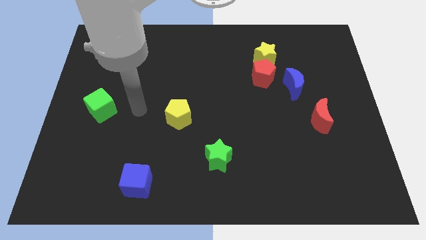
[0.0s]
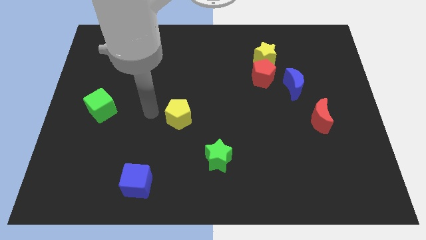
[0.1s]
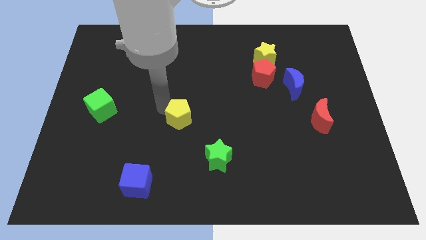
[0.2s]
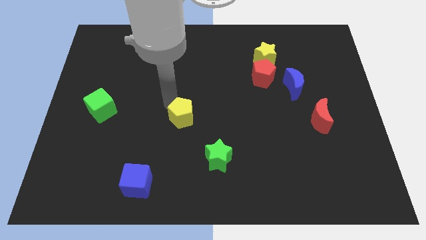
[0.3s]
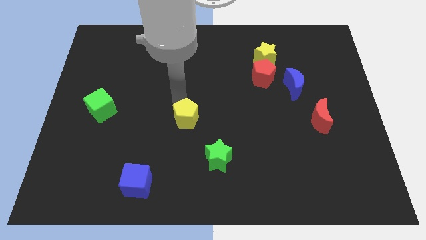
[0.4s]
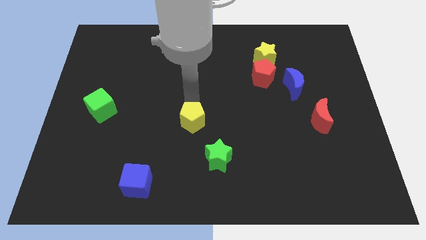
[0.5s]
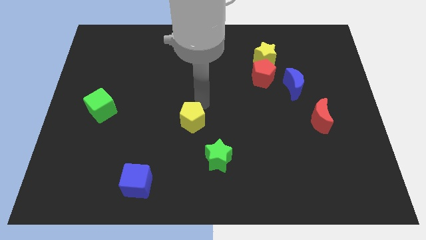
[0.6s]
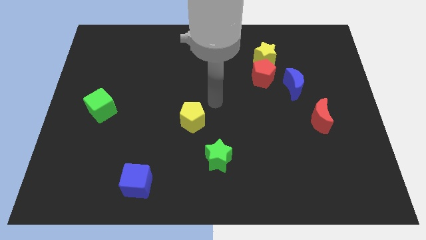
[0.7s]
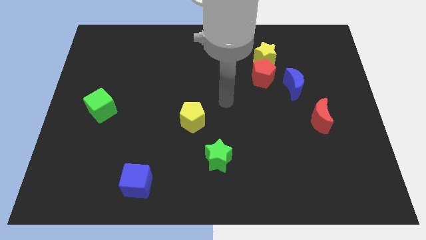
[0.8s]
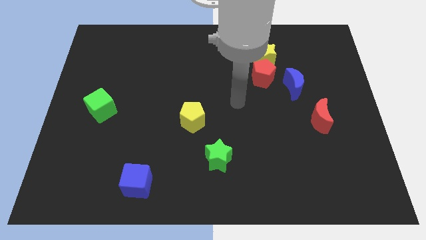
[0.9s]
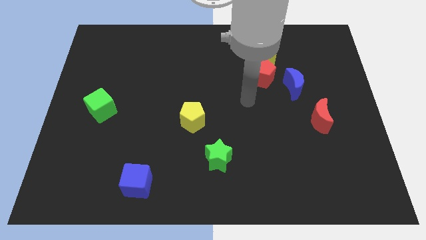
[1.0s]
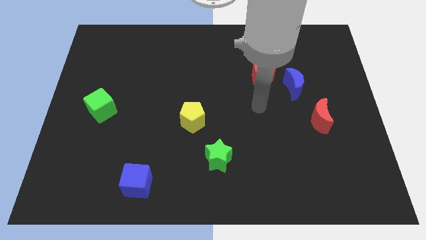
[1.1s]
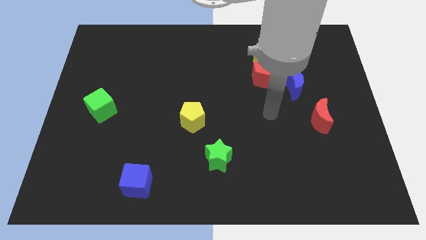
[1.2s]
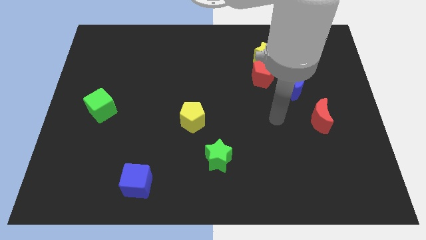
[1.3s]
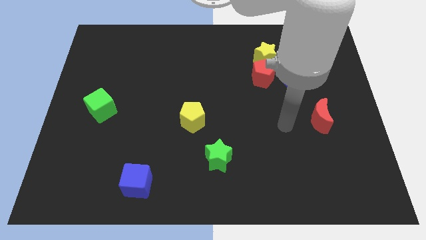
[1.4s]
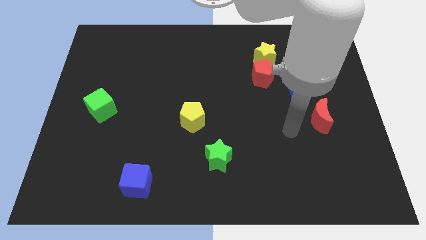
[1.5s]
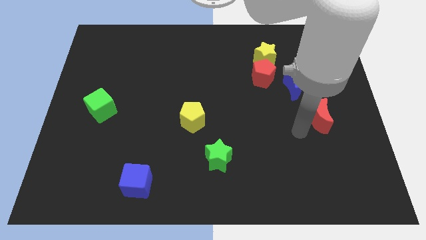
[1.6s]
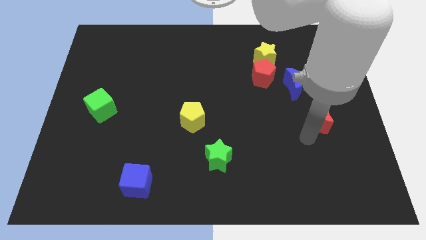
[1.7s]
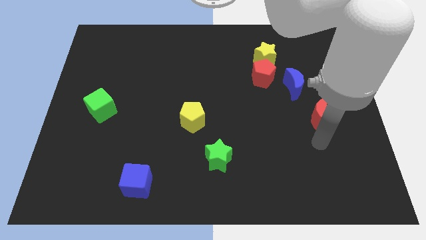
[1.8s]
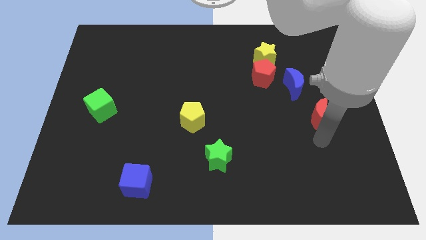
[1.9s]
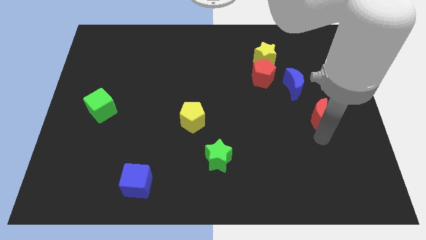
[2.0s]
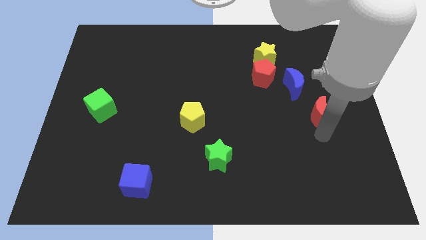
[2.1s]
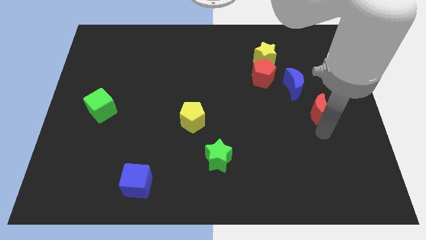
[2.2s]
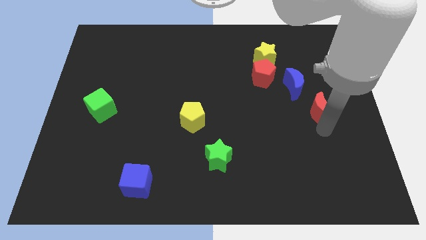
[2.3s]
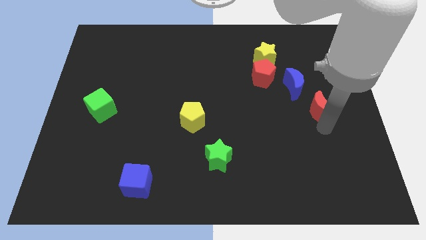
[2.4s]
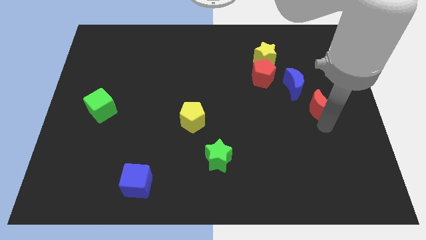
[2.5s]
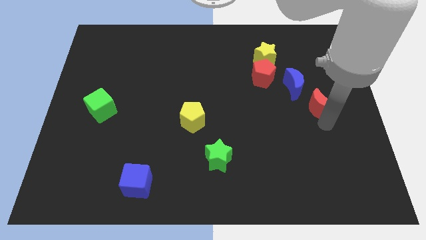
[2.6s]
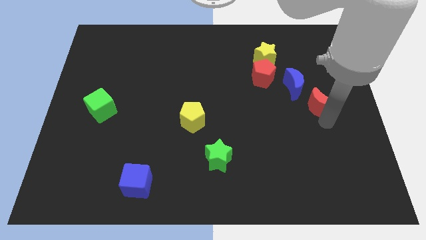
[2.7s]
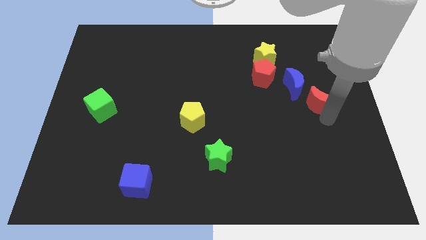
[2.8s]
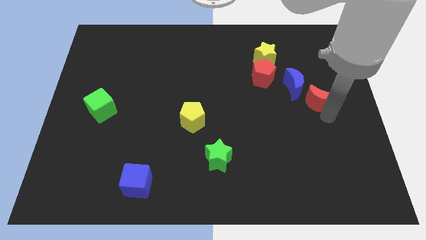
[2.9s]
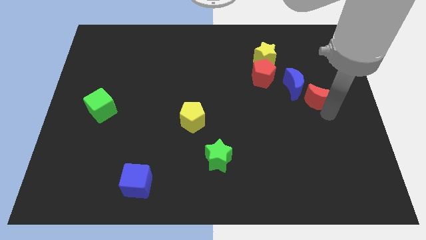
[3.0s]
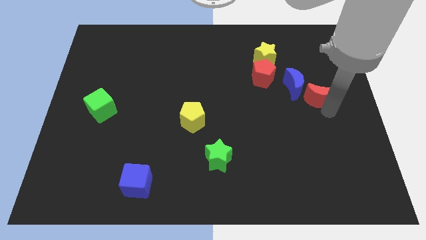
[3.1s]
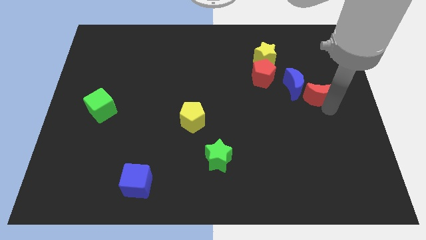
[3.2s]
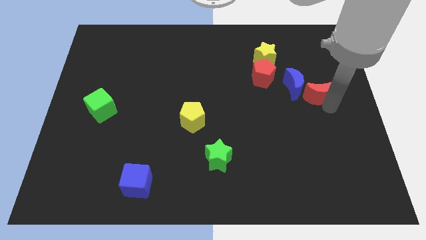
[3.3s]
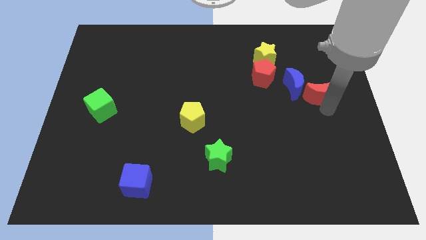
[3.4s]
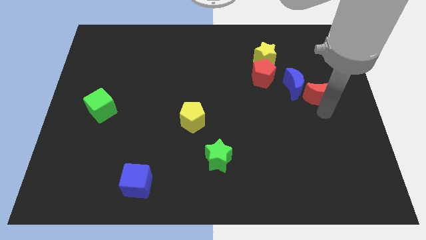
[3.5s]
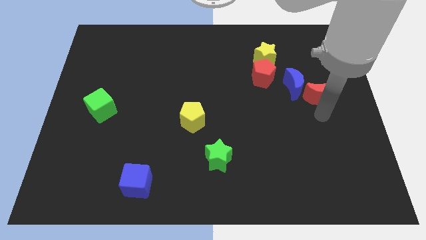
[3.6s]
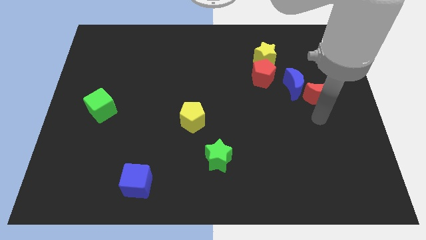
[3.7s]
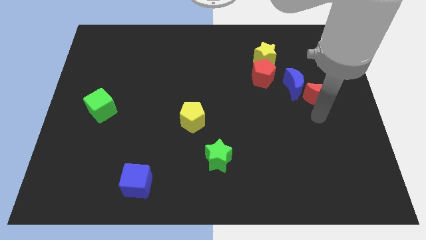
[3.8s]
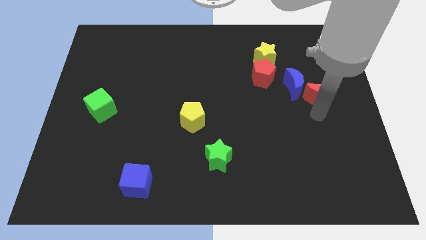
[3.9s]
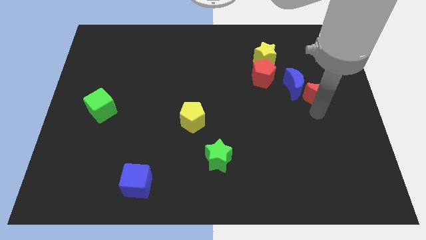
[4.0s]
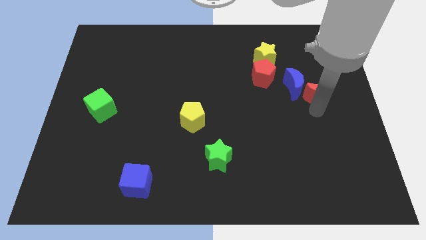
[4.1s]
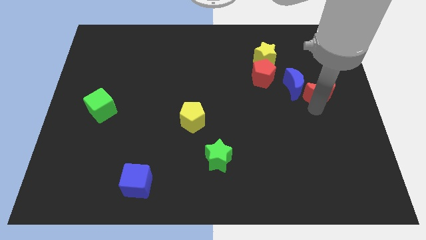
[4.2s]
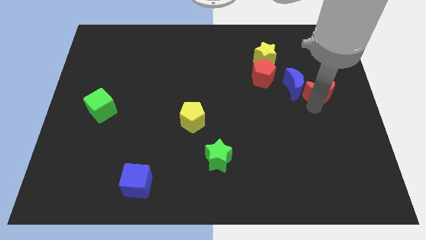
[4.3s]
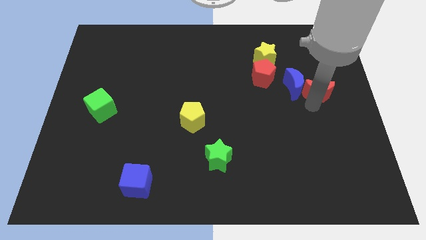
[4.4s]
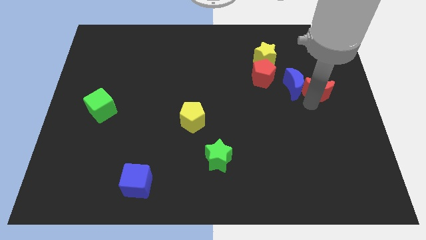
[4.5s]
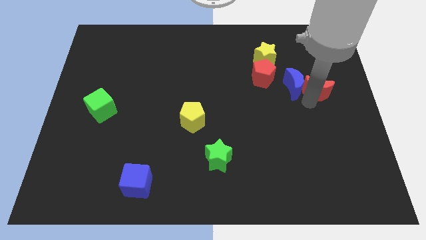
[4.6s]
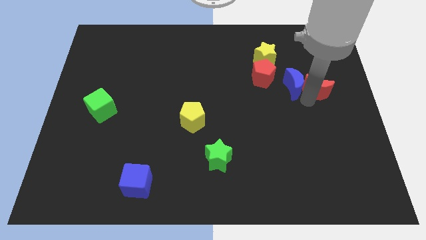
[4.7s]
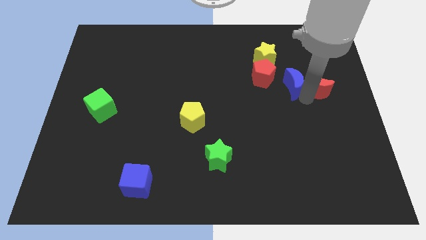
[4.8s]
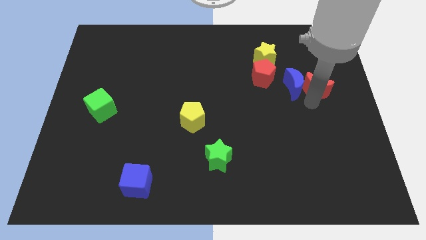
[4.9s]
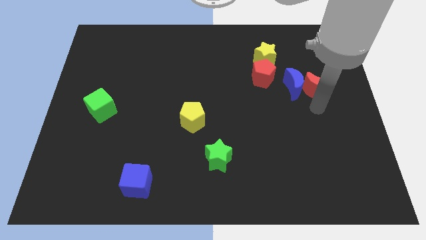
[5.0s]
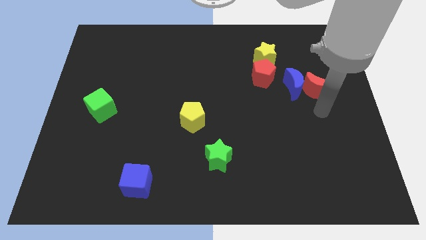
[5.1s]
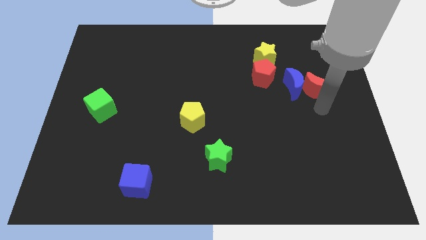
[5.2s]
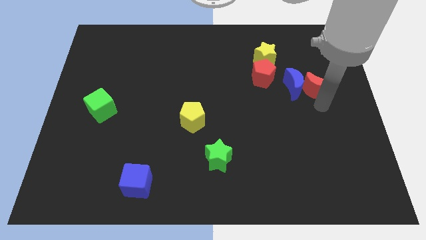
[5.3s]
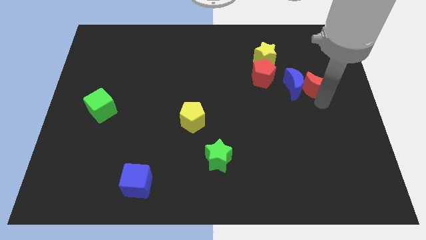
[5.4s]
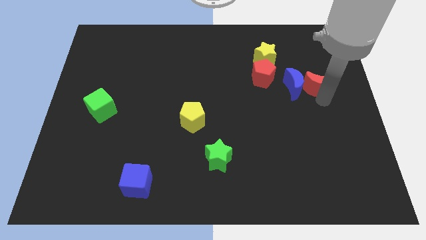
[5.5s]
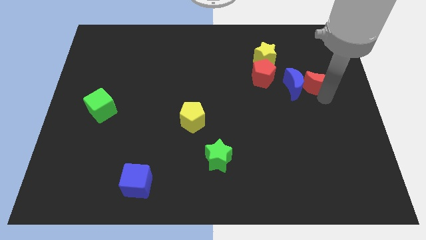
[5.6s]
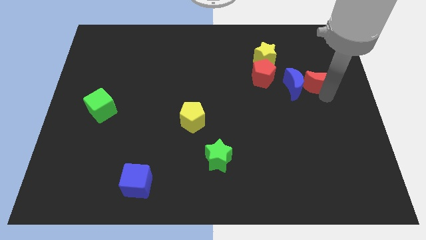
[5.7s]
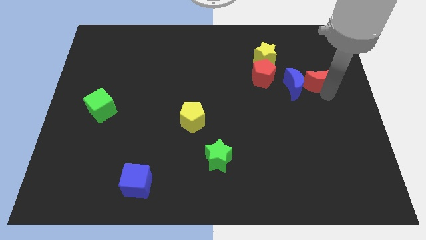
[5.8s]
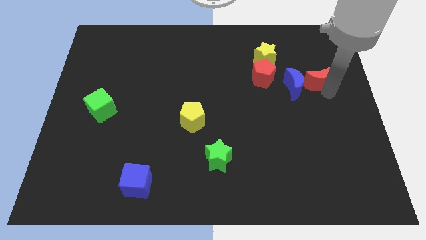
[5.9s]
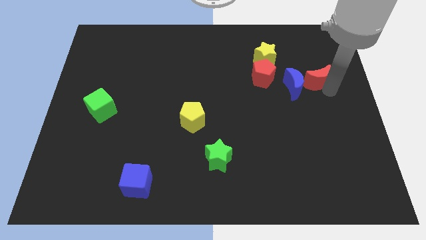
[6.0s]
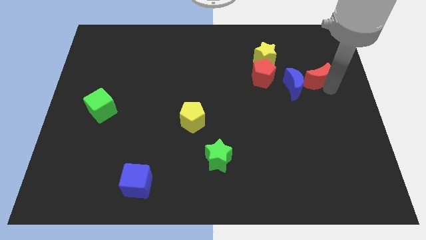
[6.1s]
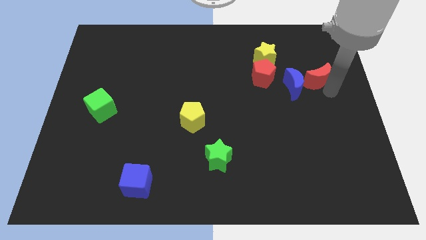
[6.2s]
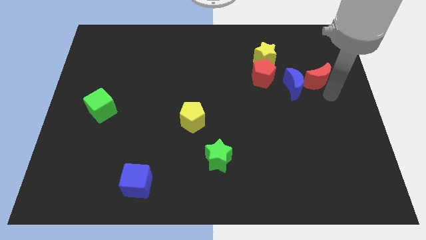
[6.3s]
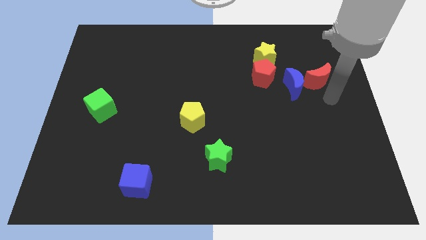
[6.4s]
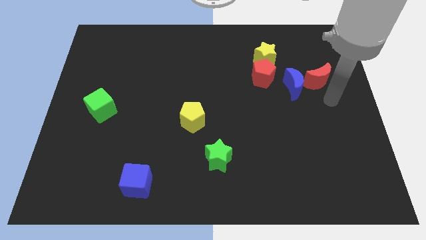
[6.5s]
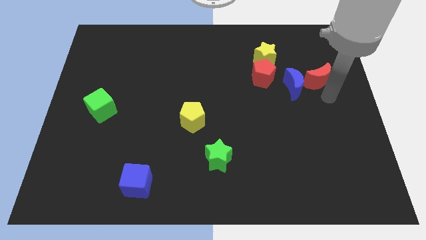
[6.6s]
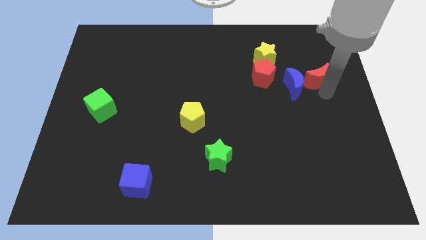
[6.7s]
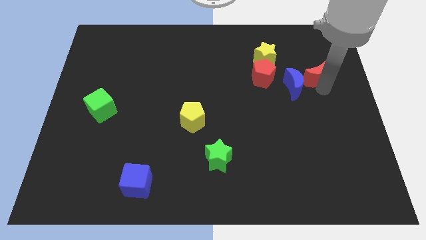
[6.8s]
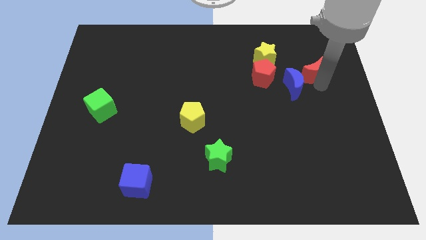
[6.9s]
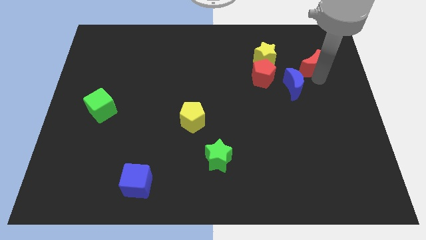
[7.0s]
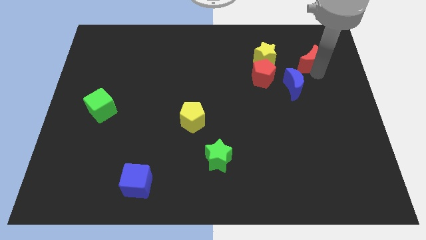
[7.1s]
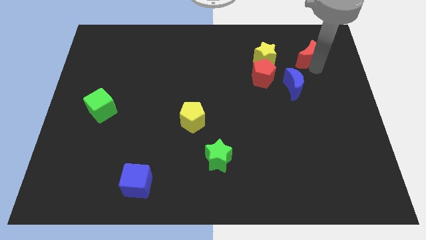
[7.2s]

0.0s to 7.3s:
move the red moon to the top of the blue moon
